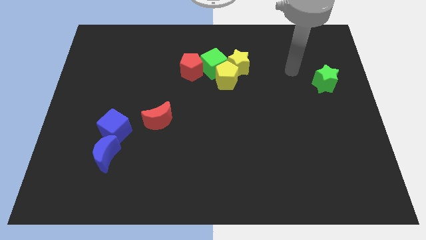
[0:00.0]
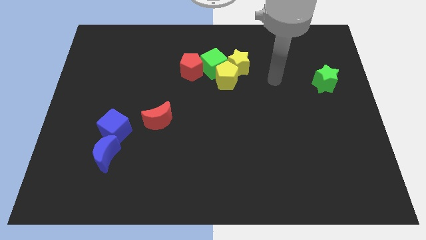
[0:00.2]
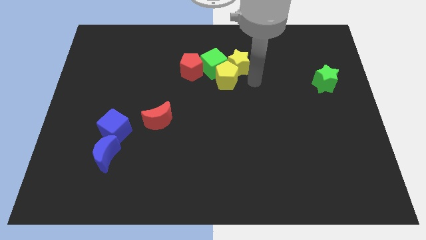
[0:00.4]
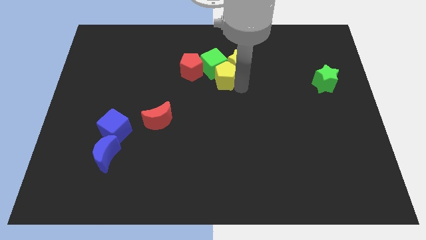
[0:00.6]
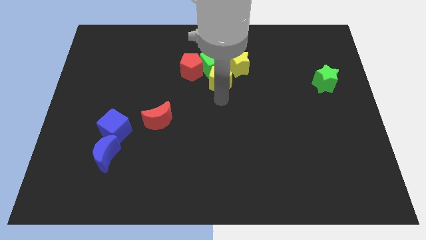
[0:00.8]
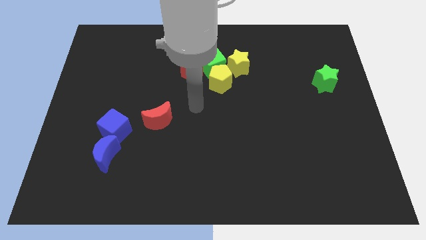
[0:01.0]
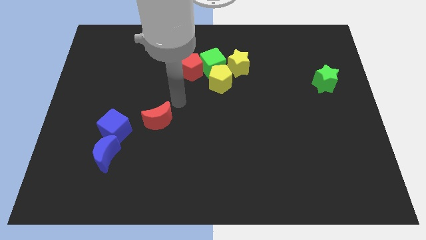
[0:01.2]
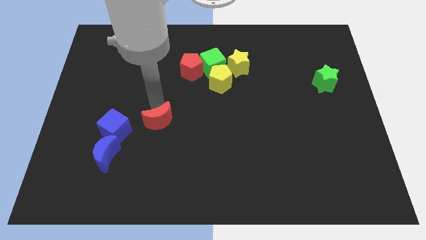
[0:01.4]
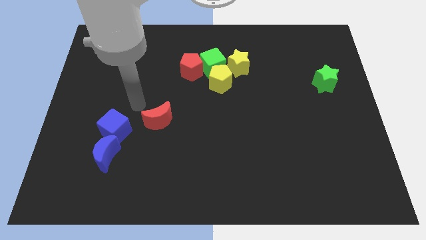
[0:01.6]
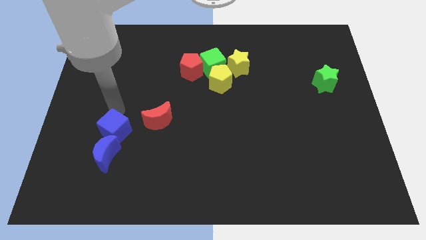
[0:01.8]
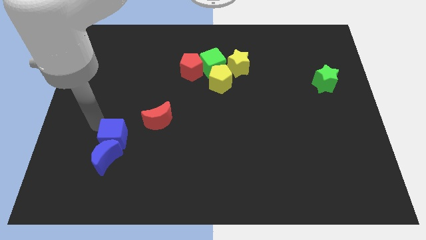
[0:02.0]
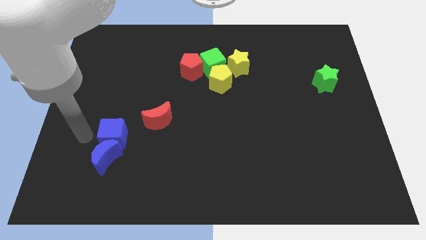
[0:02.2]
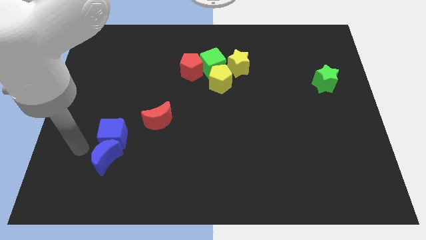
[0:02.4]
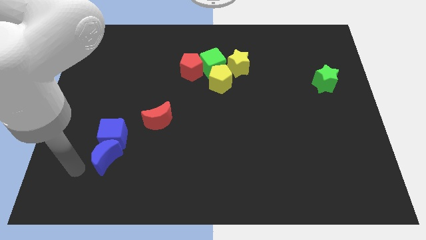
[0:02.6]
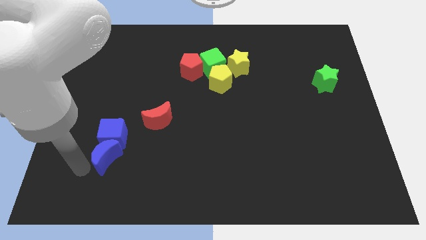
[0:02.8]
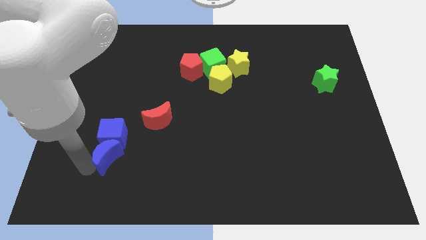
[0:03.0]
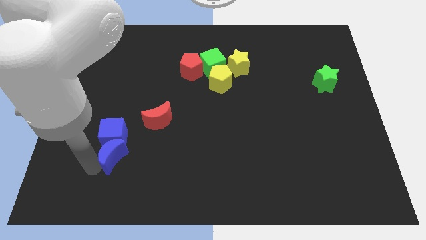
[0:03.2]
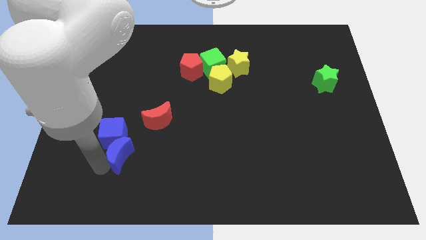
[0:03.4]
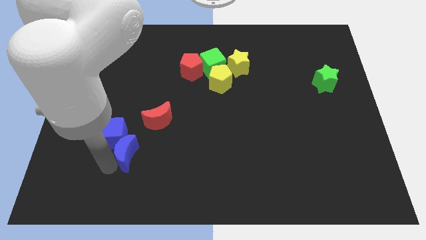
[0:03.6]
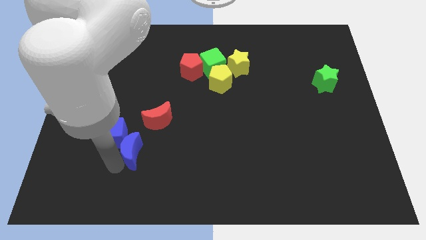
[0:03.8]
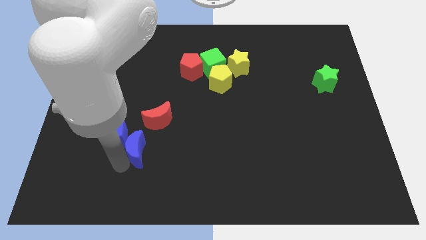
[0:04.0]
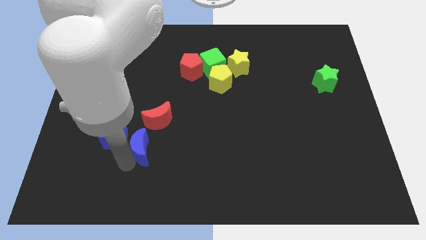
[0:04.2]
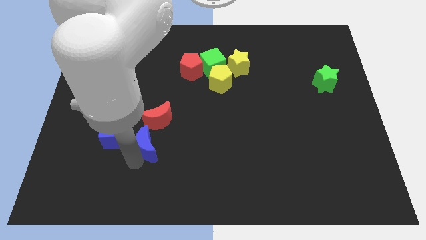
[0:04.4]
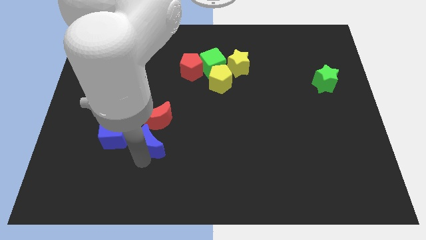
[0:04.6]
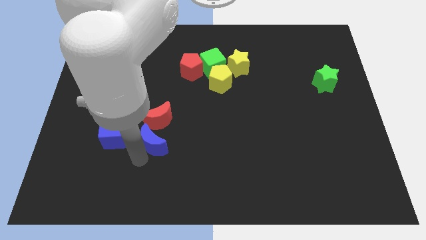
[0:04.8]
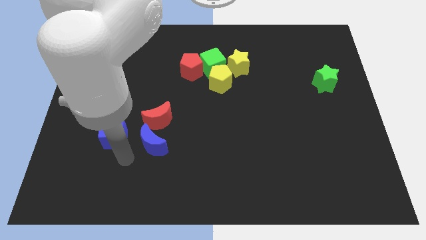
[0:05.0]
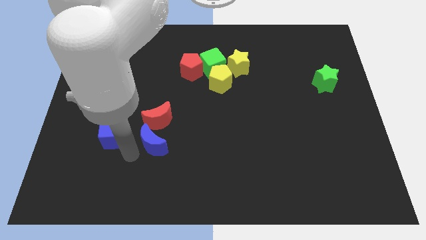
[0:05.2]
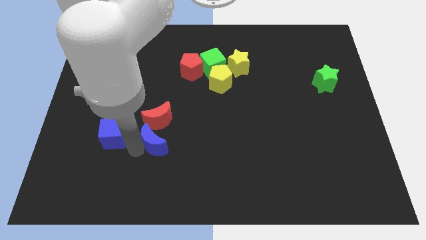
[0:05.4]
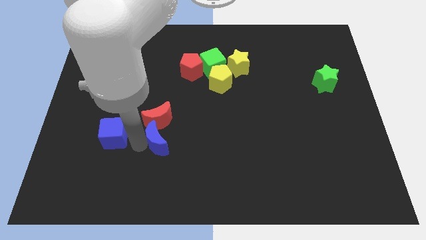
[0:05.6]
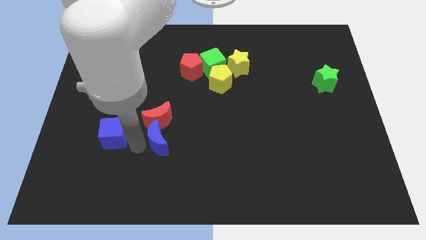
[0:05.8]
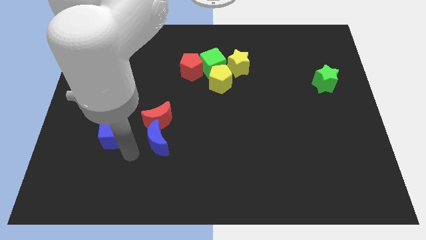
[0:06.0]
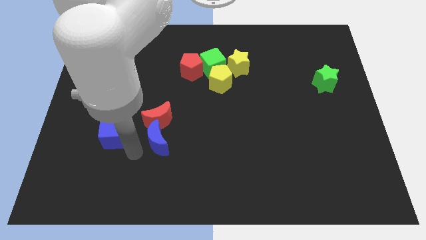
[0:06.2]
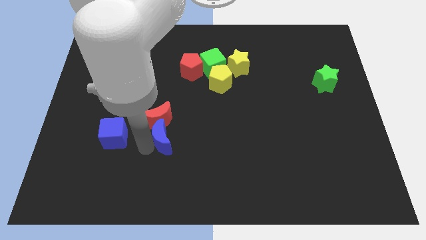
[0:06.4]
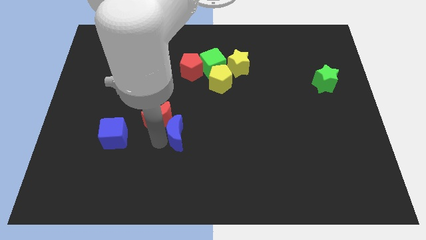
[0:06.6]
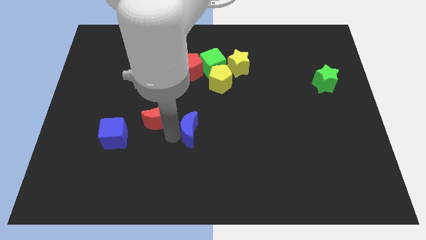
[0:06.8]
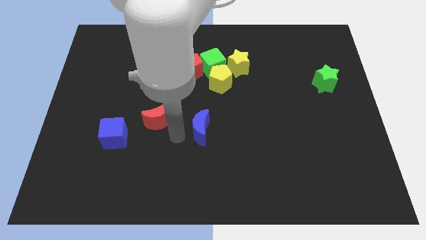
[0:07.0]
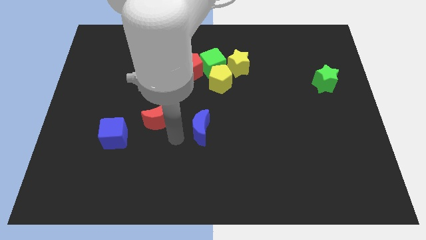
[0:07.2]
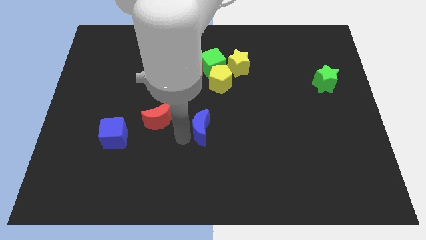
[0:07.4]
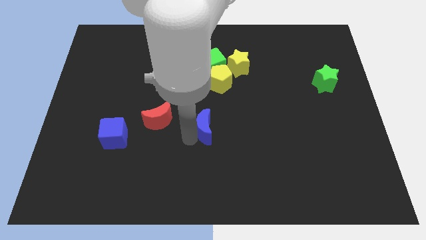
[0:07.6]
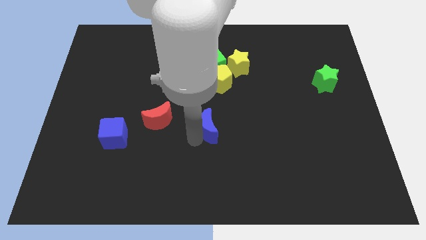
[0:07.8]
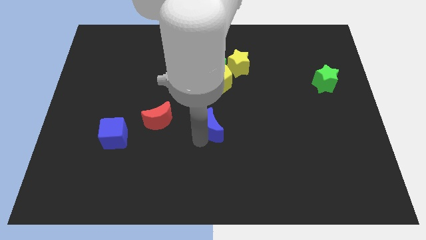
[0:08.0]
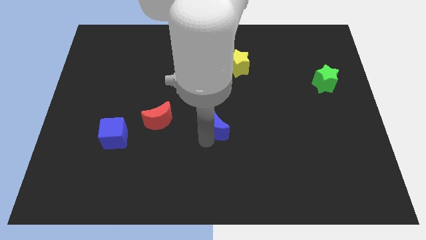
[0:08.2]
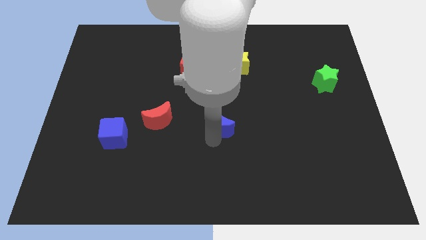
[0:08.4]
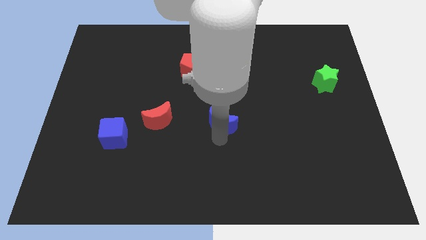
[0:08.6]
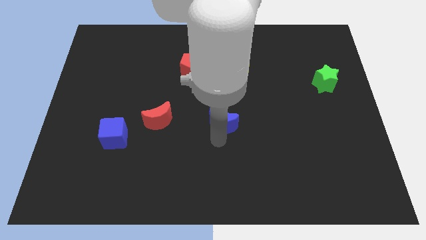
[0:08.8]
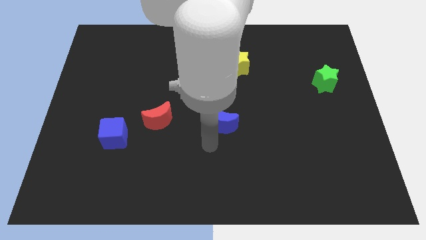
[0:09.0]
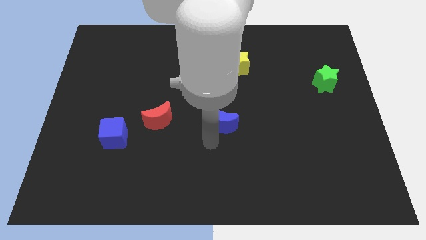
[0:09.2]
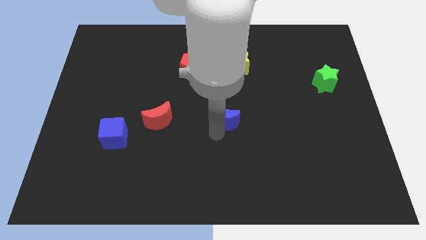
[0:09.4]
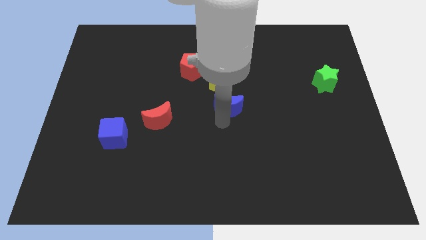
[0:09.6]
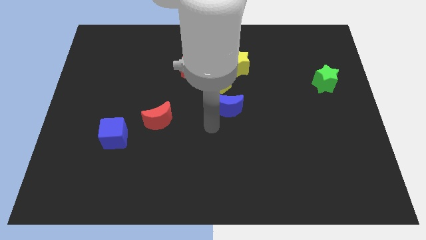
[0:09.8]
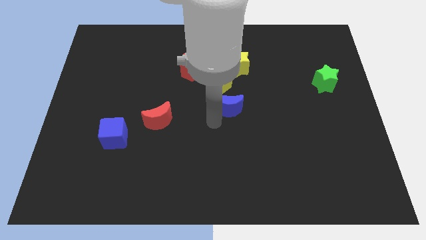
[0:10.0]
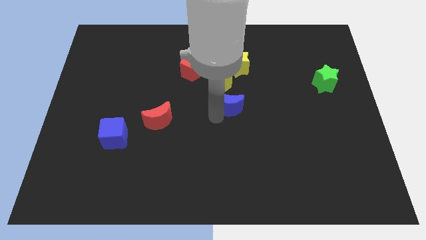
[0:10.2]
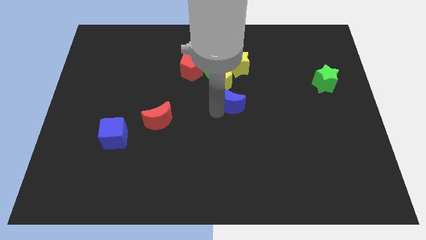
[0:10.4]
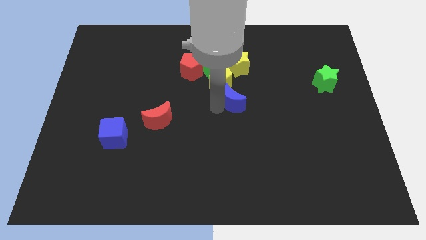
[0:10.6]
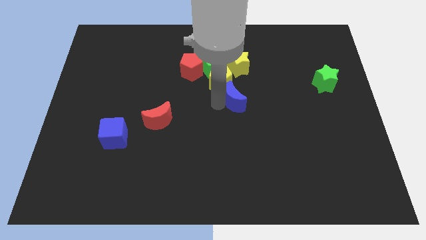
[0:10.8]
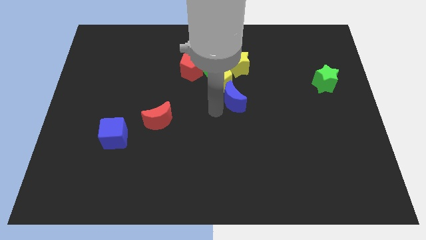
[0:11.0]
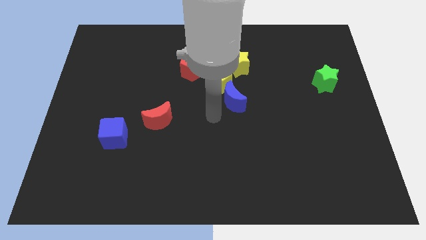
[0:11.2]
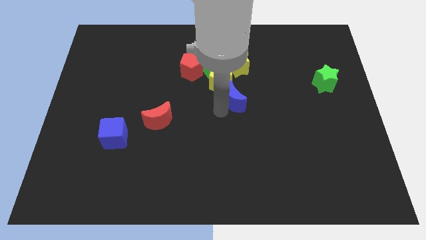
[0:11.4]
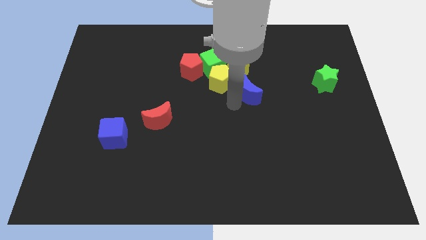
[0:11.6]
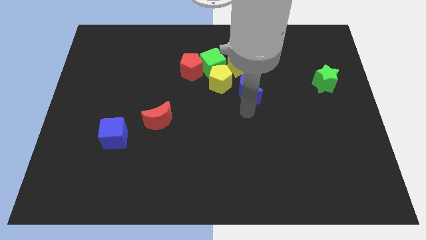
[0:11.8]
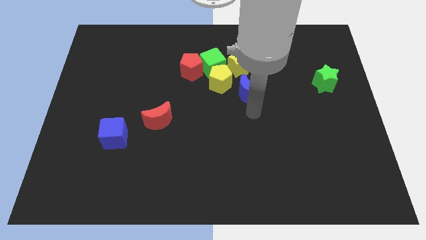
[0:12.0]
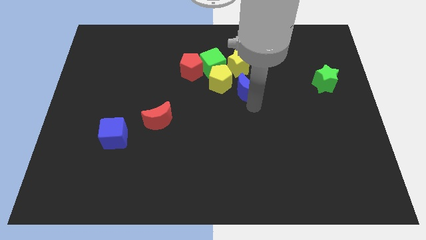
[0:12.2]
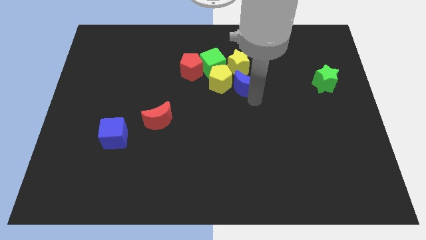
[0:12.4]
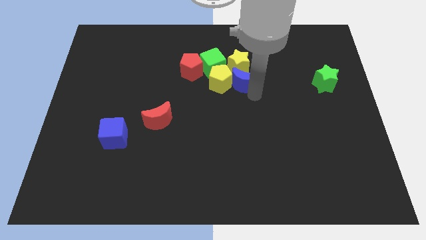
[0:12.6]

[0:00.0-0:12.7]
move the blue moon close to the yellow star

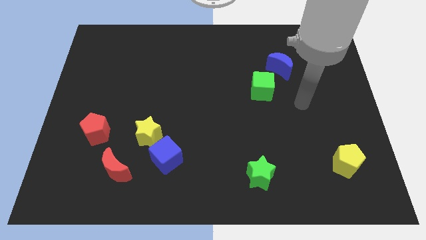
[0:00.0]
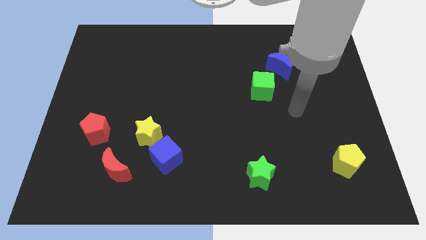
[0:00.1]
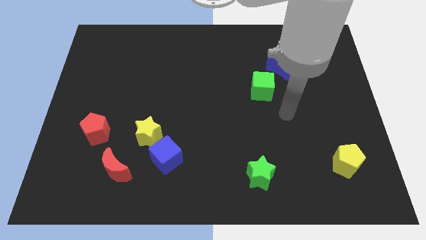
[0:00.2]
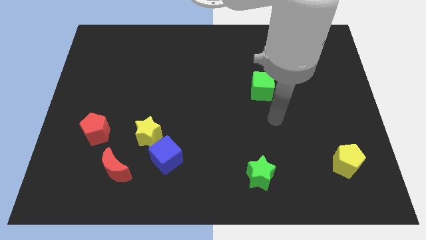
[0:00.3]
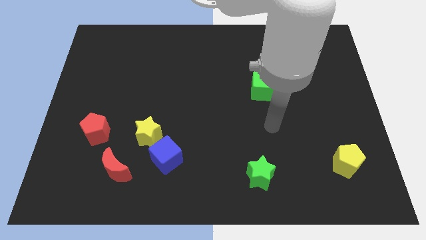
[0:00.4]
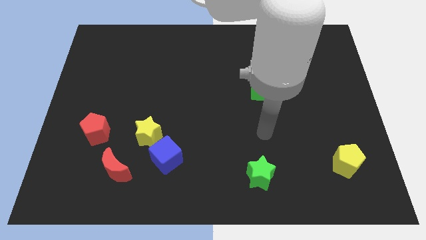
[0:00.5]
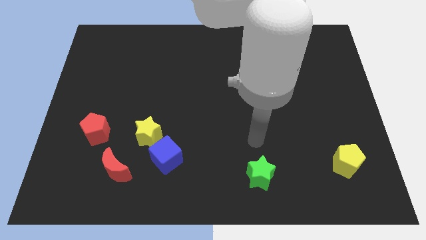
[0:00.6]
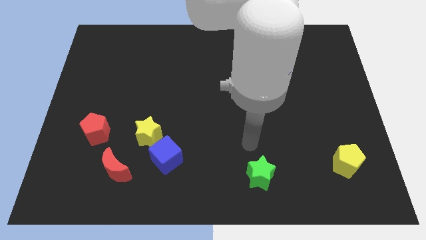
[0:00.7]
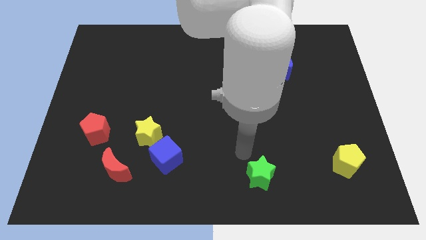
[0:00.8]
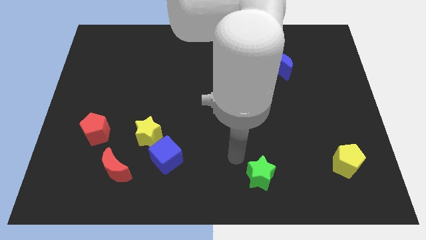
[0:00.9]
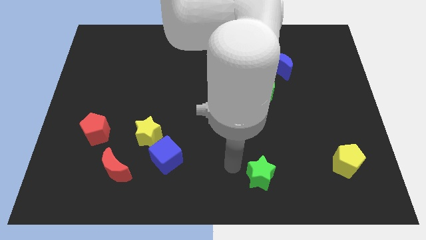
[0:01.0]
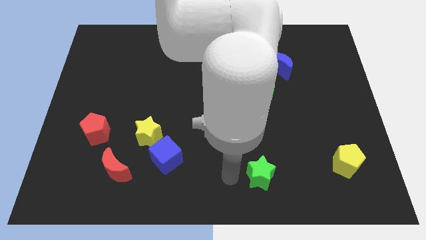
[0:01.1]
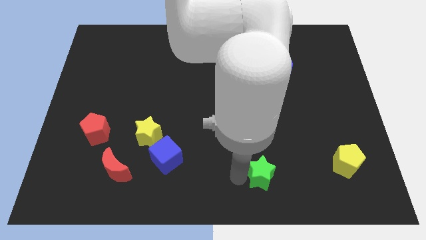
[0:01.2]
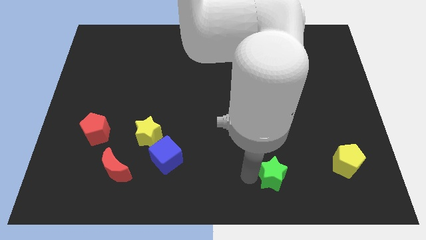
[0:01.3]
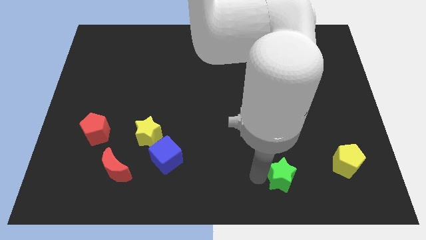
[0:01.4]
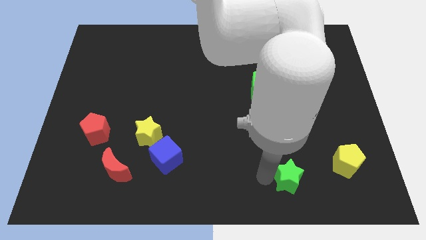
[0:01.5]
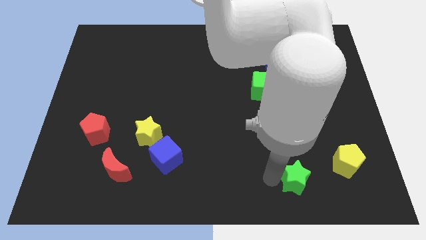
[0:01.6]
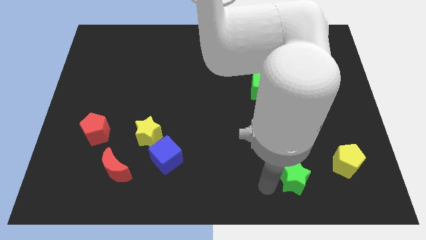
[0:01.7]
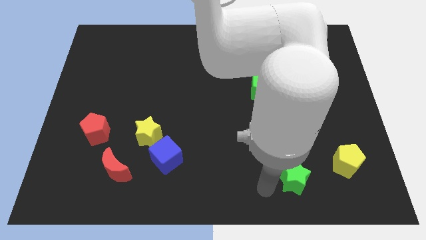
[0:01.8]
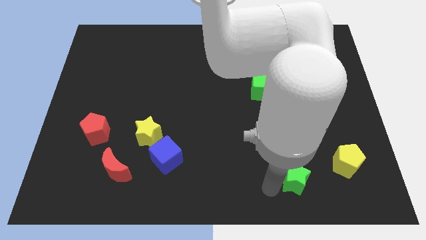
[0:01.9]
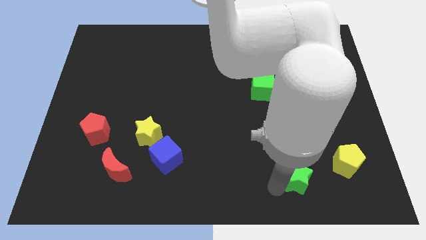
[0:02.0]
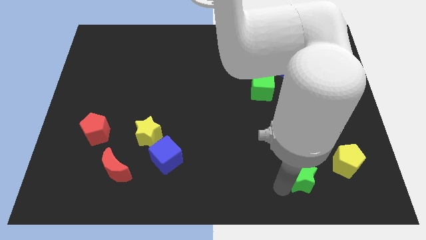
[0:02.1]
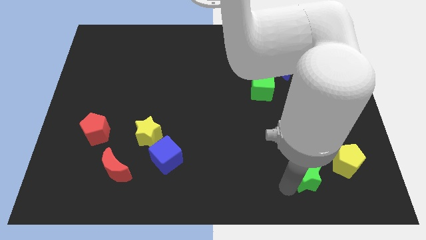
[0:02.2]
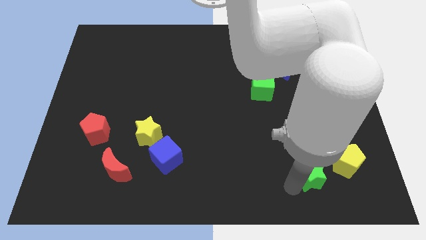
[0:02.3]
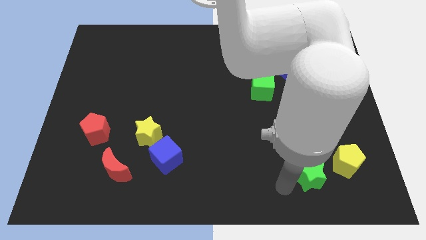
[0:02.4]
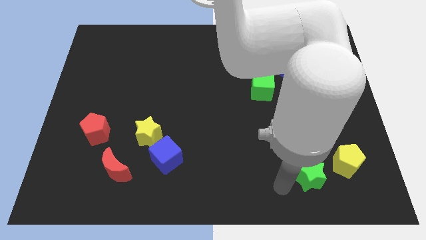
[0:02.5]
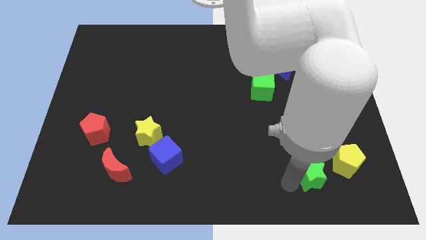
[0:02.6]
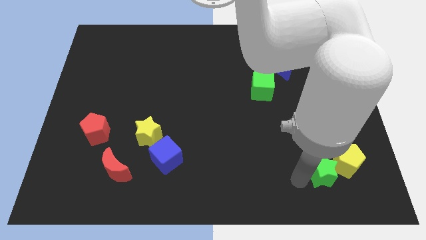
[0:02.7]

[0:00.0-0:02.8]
put the green star towards the yellow pentagon
